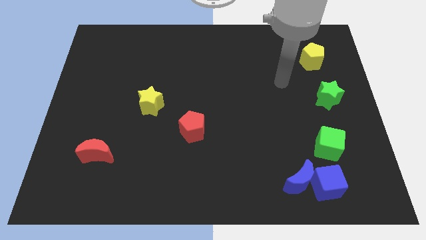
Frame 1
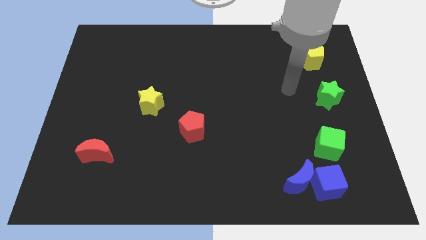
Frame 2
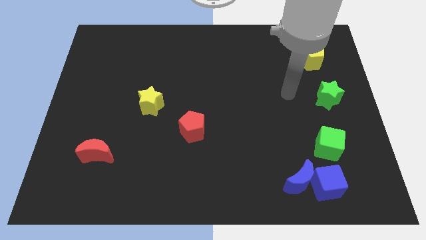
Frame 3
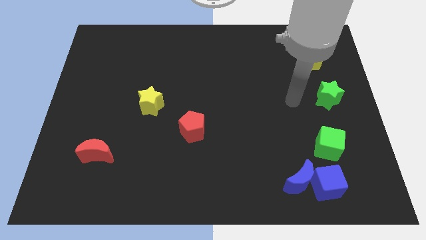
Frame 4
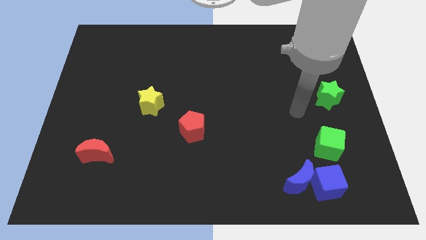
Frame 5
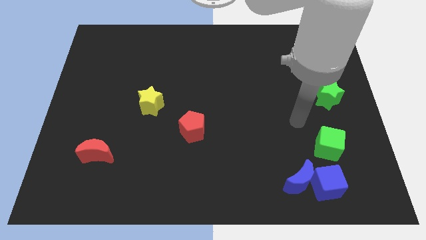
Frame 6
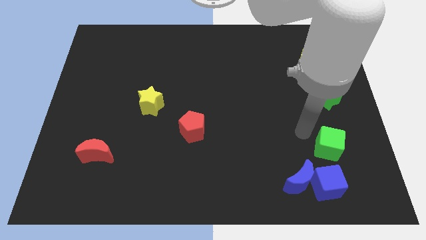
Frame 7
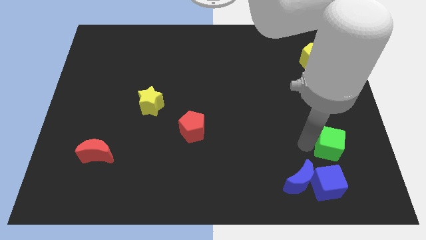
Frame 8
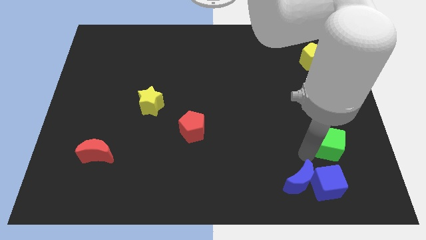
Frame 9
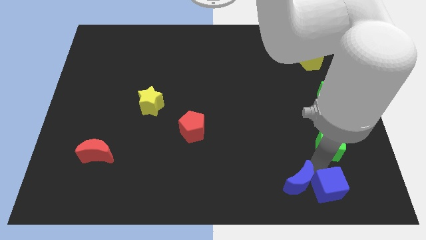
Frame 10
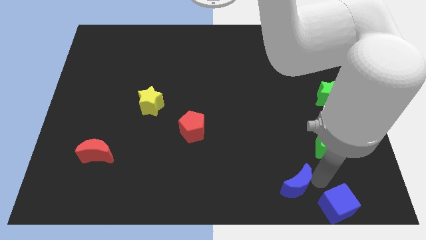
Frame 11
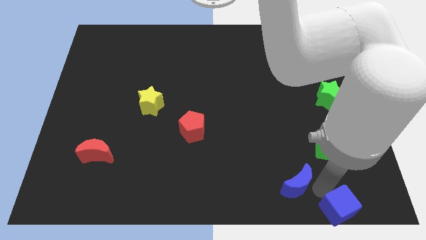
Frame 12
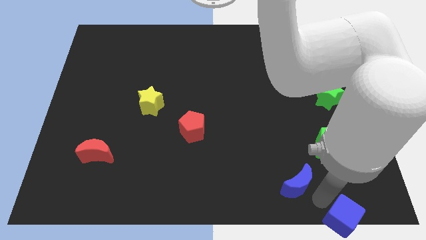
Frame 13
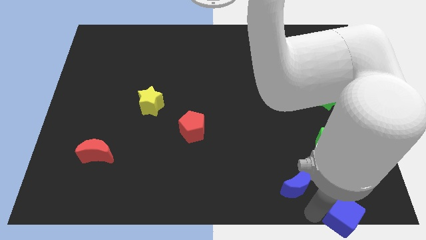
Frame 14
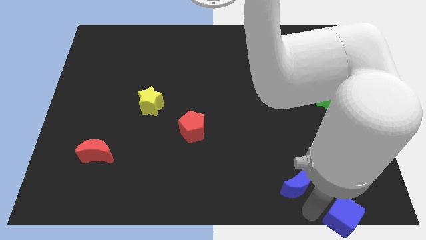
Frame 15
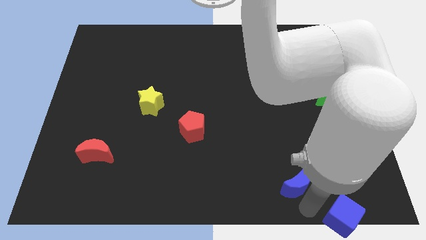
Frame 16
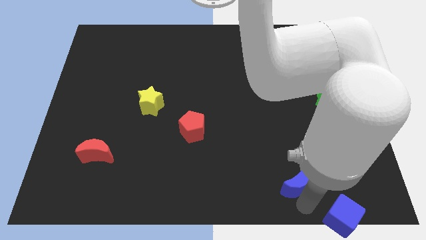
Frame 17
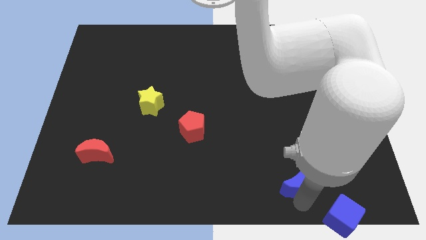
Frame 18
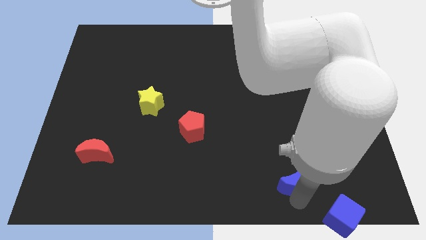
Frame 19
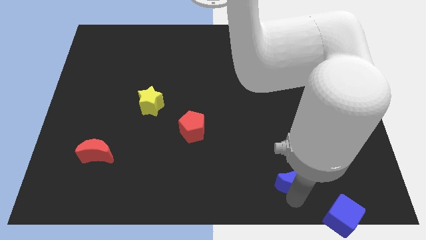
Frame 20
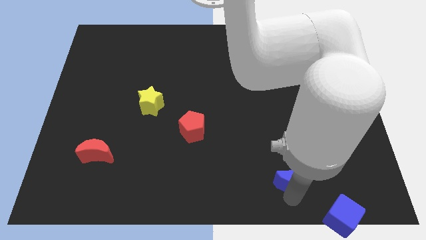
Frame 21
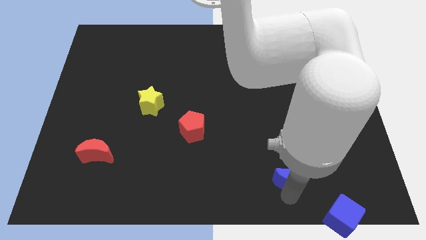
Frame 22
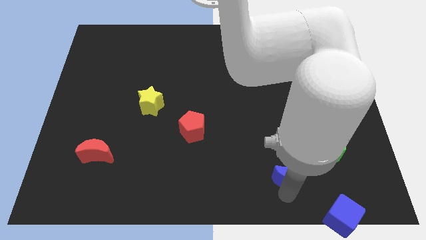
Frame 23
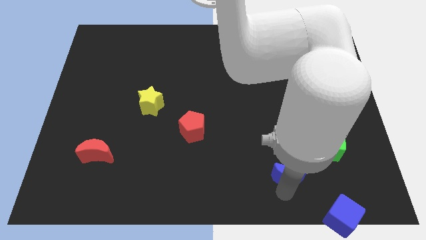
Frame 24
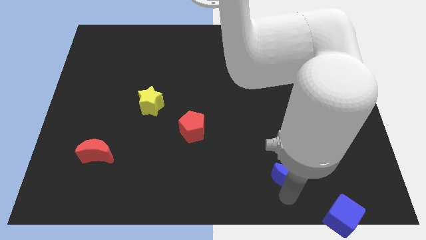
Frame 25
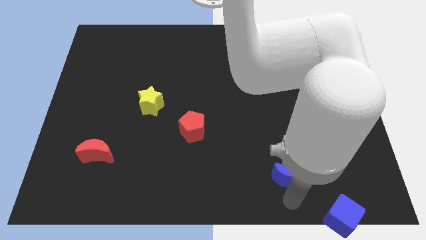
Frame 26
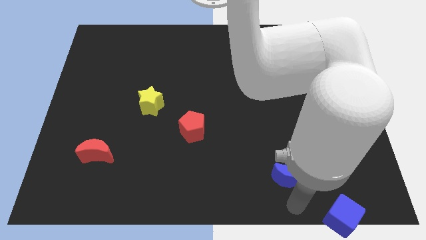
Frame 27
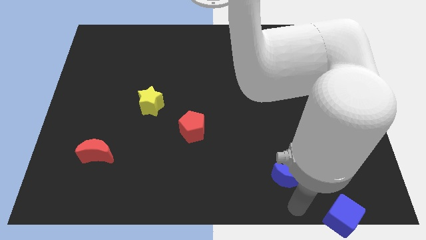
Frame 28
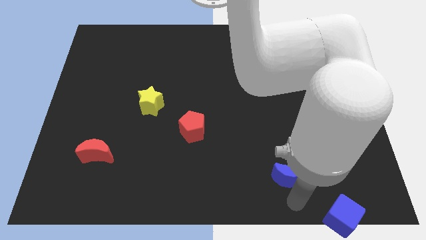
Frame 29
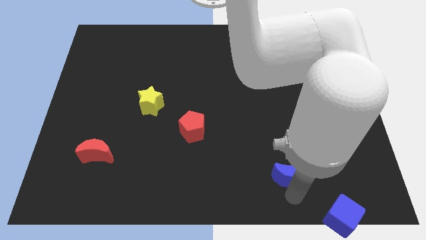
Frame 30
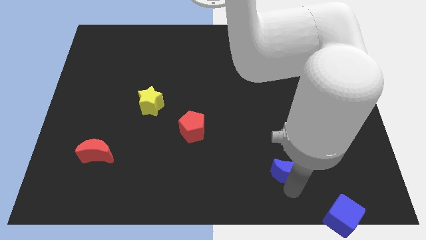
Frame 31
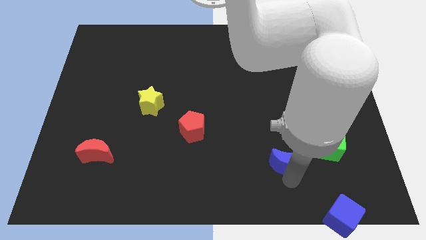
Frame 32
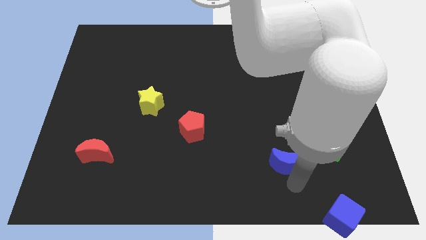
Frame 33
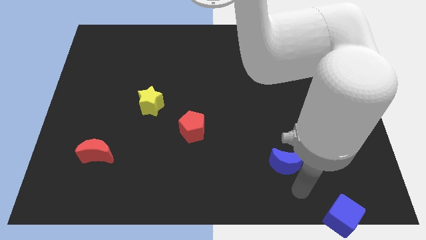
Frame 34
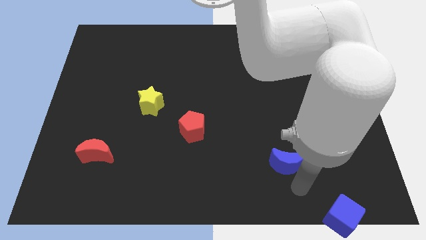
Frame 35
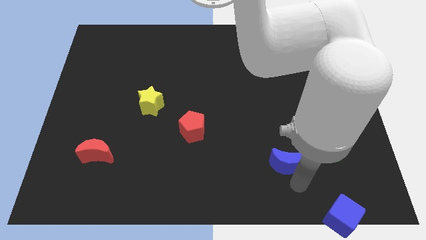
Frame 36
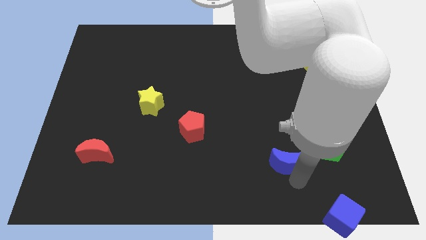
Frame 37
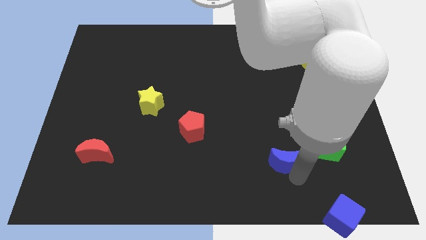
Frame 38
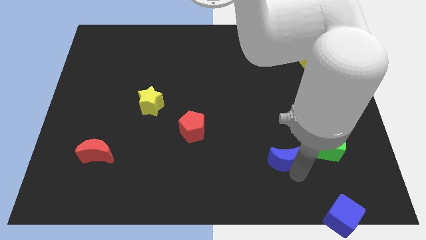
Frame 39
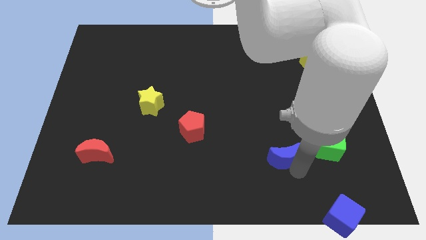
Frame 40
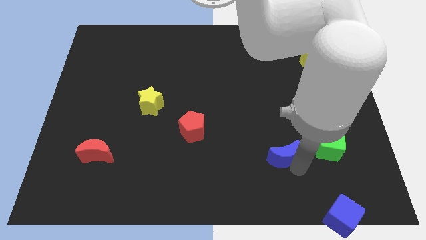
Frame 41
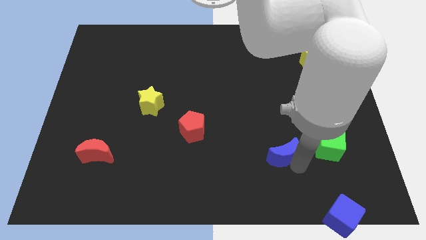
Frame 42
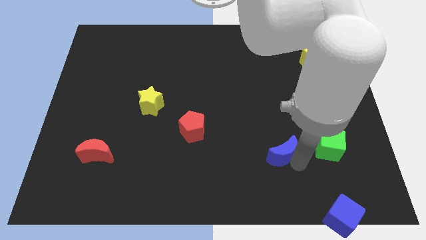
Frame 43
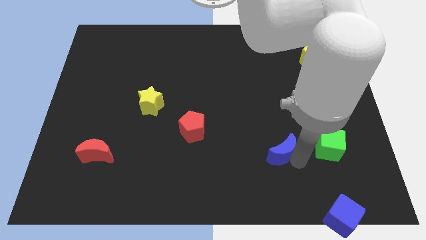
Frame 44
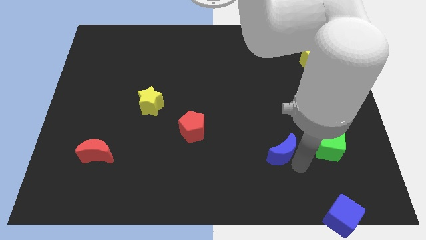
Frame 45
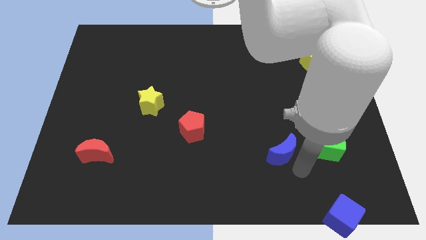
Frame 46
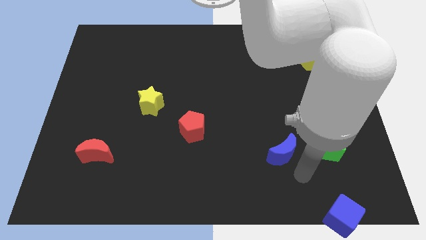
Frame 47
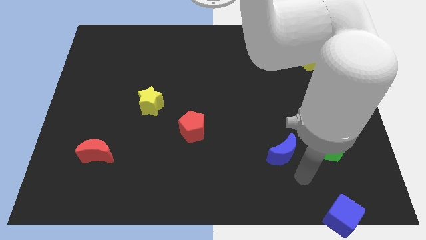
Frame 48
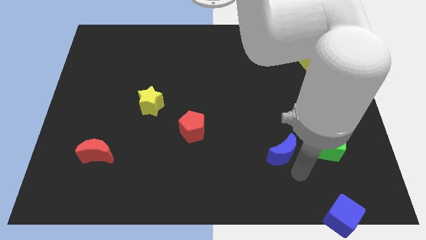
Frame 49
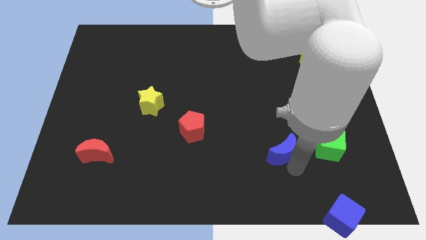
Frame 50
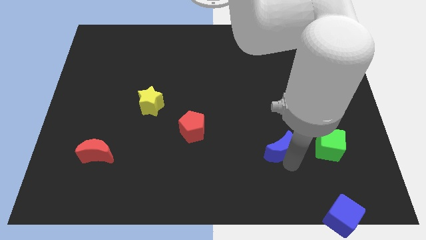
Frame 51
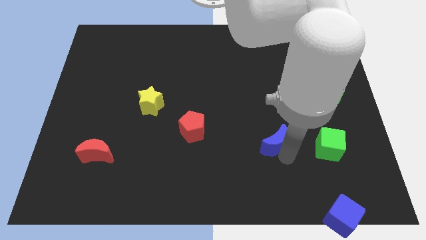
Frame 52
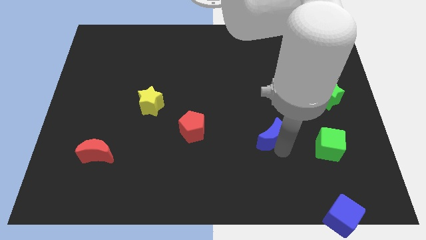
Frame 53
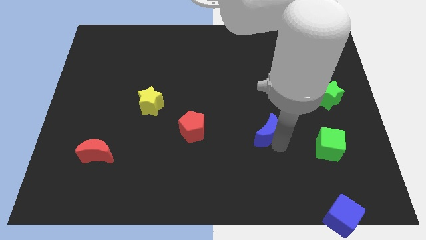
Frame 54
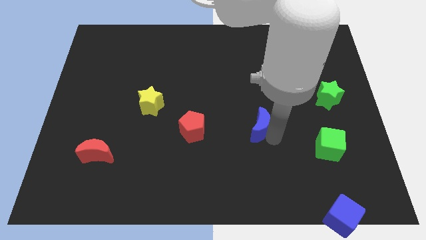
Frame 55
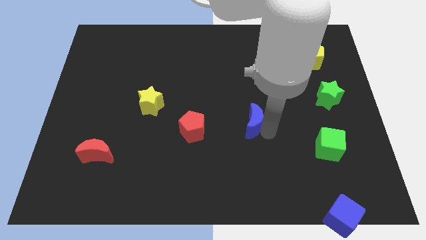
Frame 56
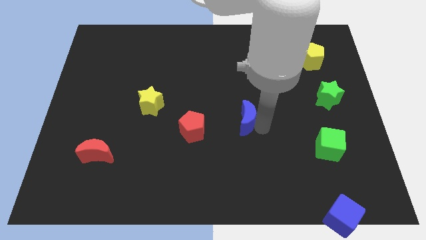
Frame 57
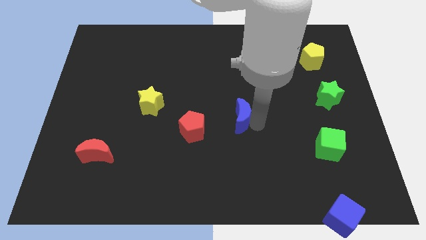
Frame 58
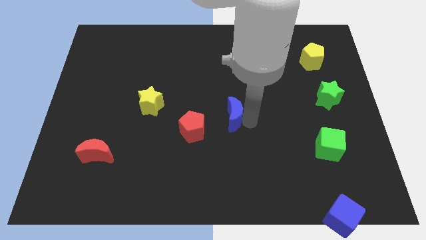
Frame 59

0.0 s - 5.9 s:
push the blue moon up and then left

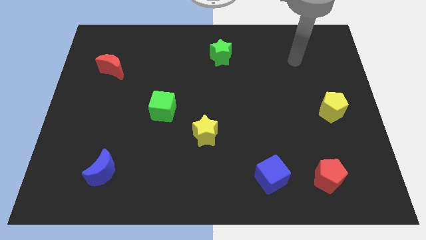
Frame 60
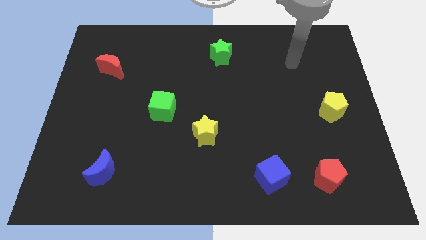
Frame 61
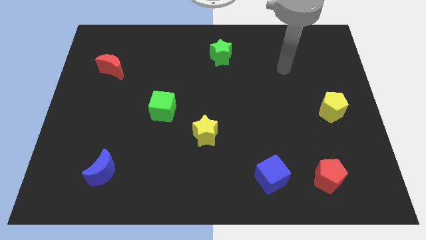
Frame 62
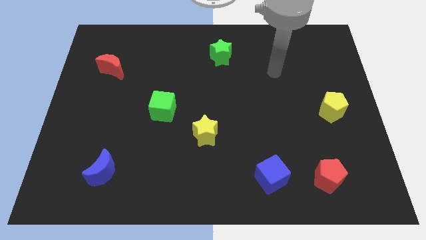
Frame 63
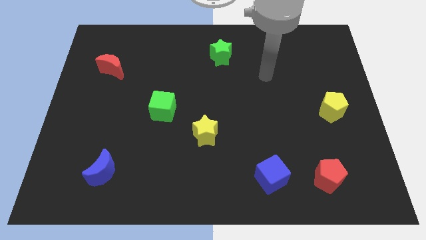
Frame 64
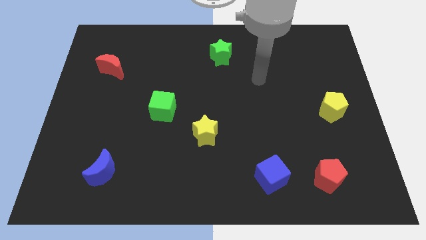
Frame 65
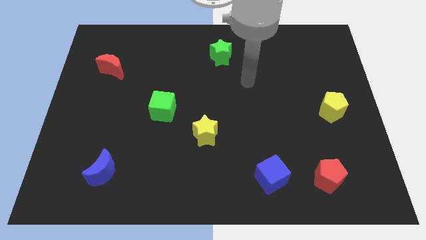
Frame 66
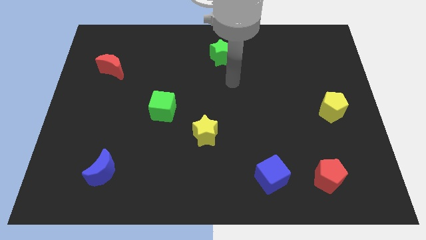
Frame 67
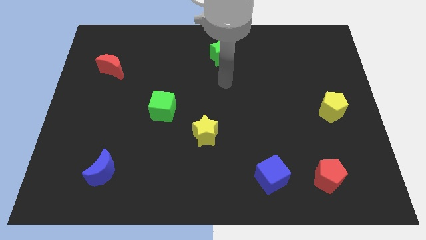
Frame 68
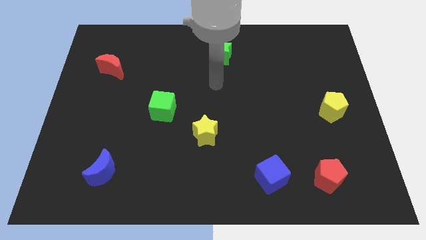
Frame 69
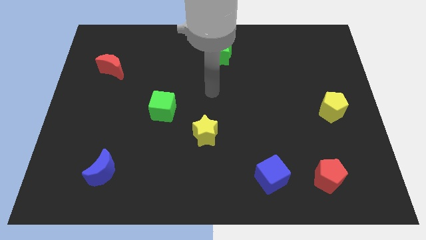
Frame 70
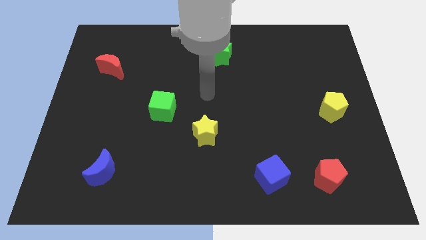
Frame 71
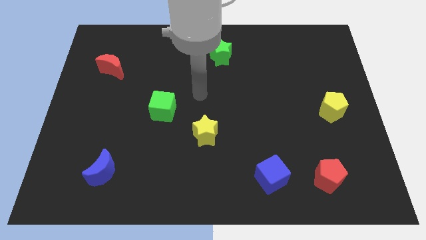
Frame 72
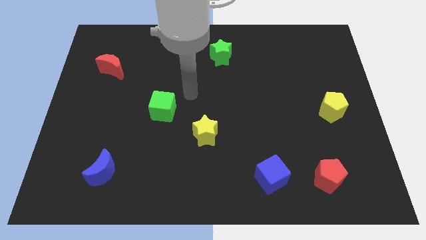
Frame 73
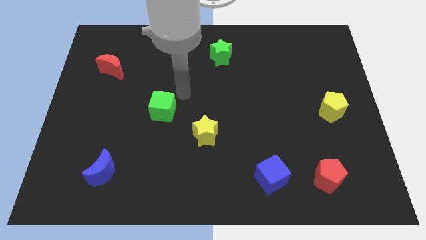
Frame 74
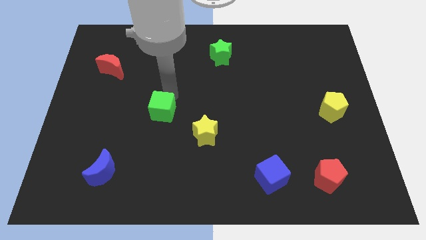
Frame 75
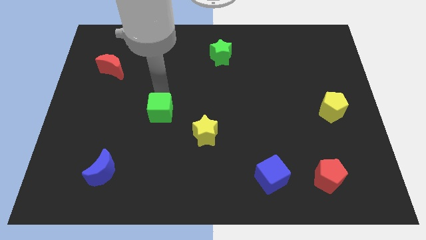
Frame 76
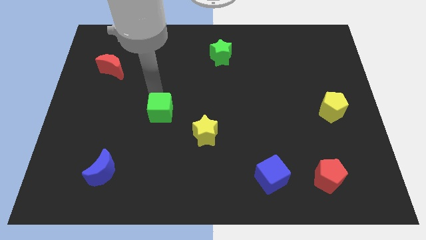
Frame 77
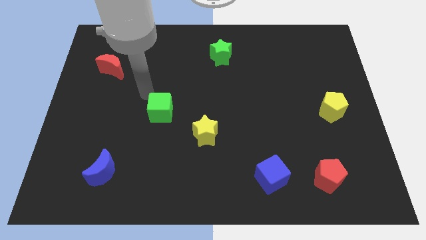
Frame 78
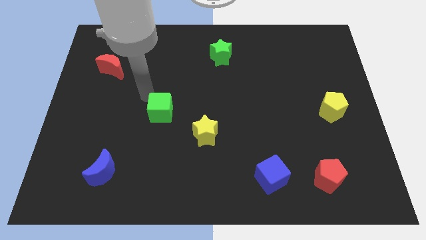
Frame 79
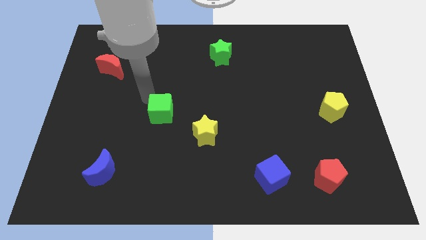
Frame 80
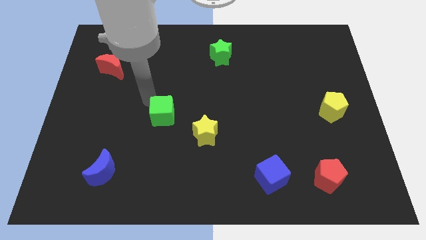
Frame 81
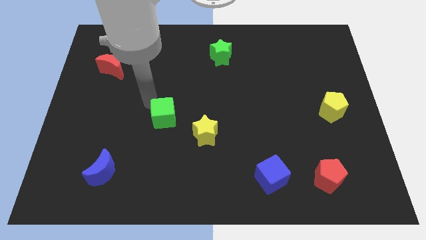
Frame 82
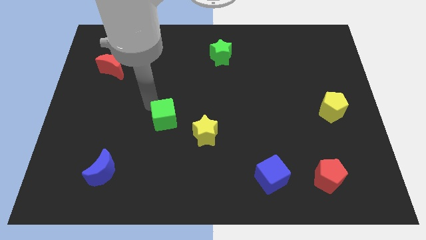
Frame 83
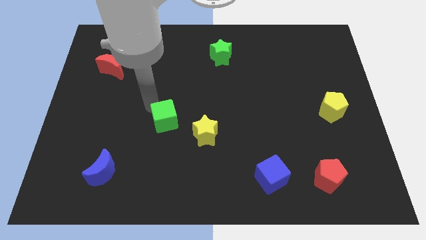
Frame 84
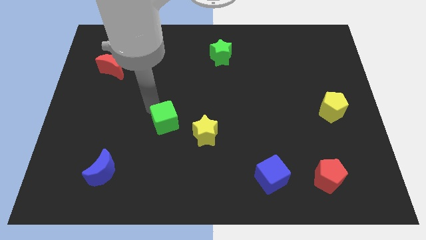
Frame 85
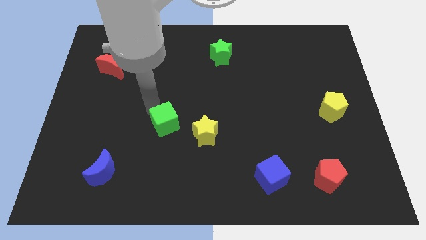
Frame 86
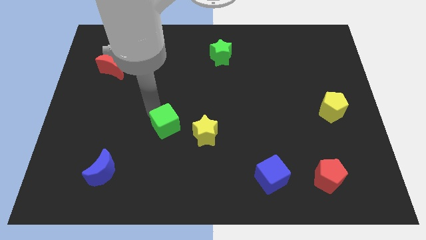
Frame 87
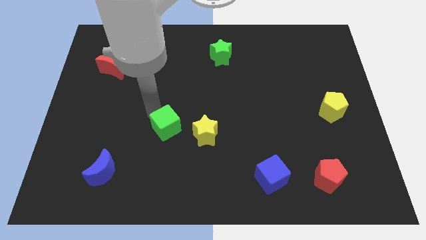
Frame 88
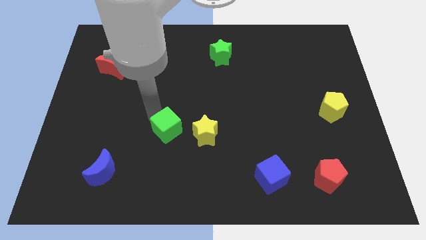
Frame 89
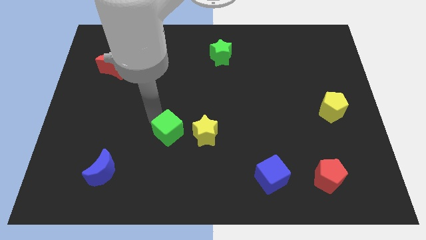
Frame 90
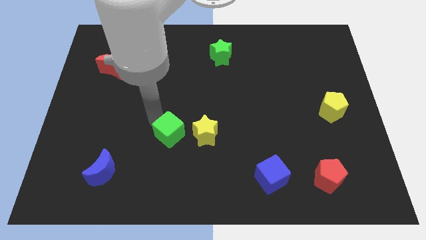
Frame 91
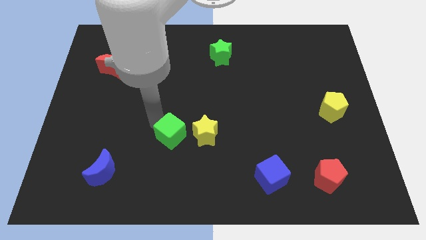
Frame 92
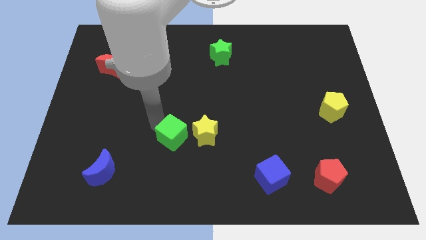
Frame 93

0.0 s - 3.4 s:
move the green cube a bit diagonally downwards and to the right
